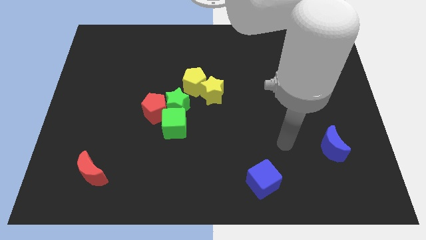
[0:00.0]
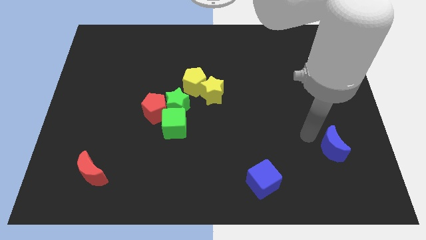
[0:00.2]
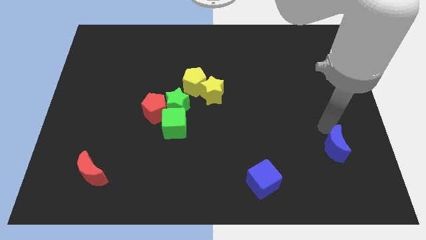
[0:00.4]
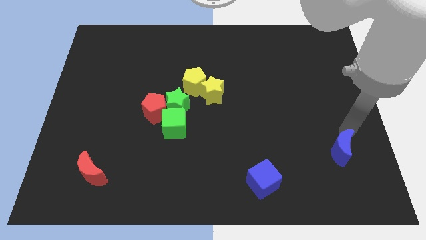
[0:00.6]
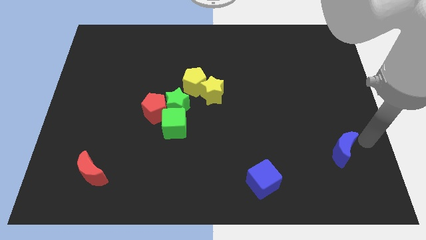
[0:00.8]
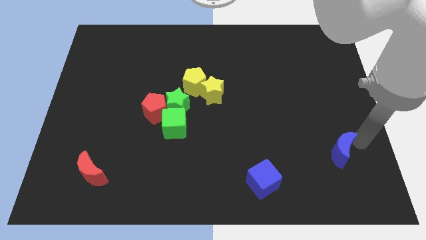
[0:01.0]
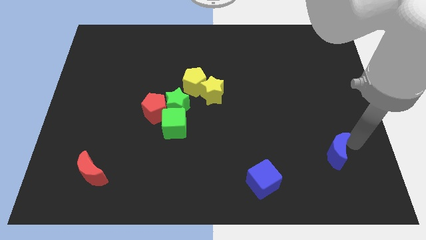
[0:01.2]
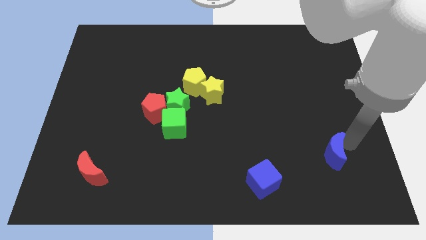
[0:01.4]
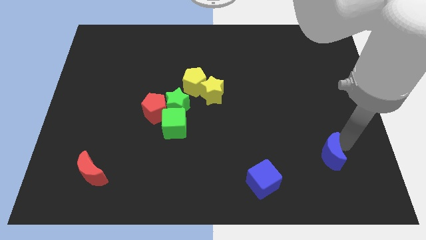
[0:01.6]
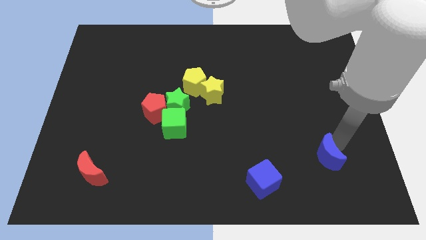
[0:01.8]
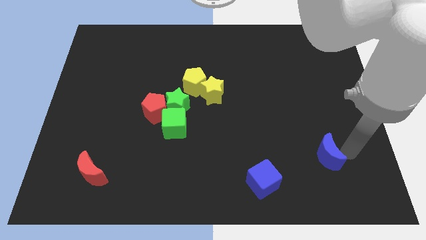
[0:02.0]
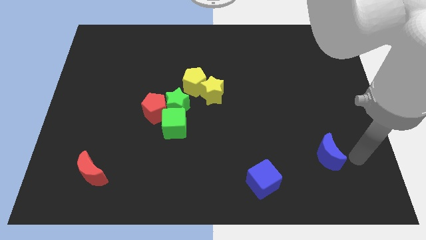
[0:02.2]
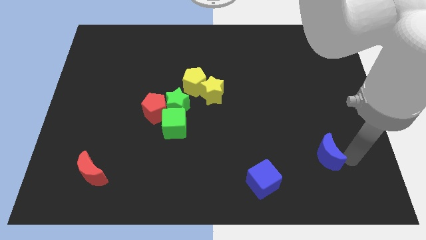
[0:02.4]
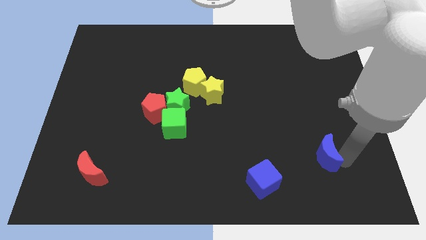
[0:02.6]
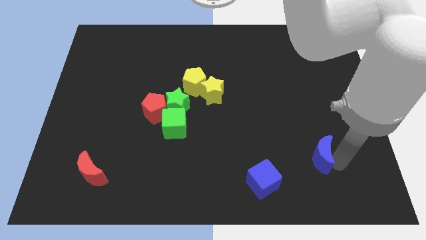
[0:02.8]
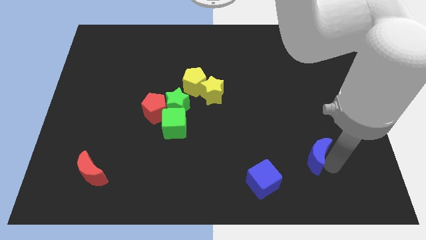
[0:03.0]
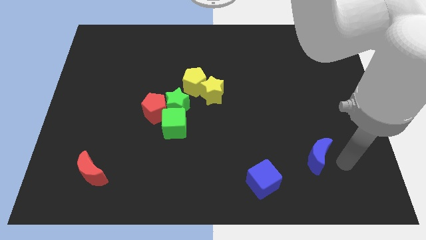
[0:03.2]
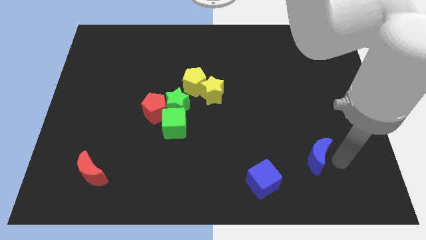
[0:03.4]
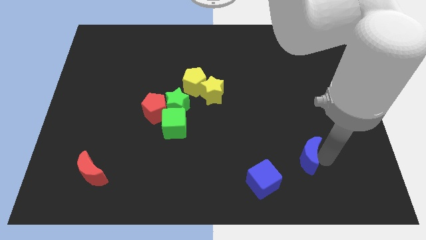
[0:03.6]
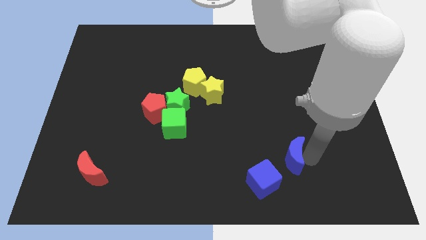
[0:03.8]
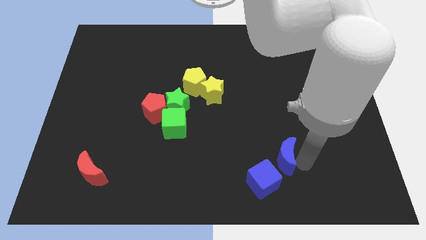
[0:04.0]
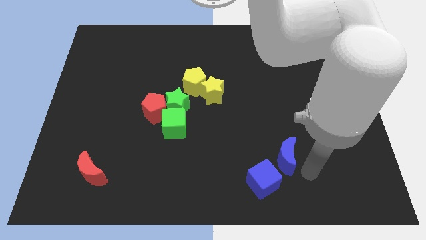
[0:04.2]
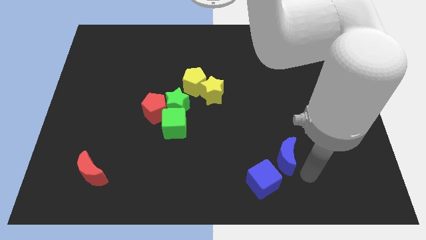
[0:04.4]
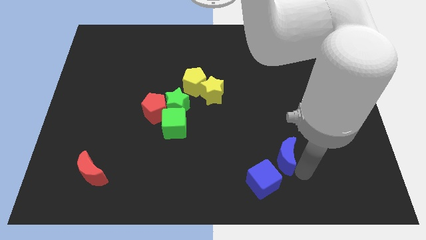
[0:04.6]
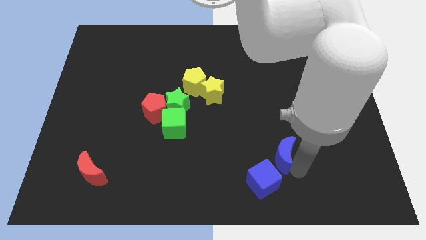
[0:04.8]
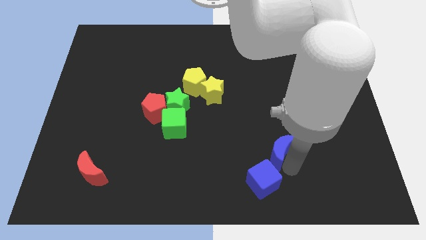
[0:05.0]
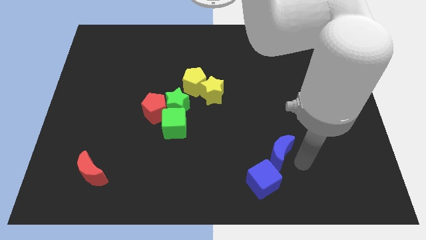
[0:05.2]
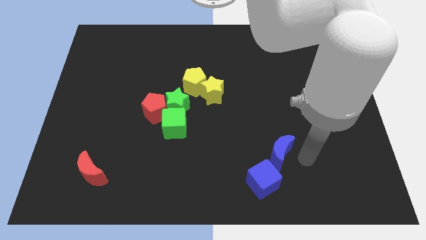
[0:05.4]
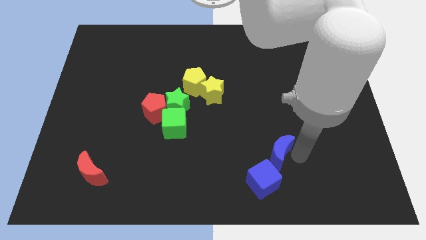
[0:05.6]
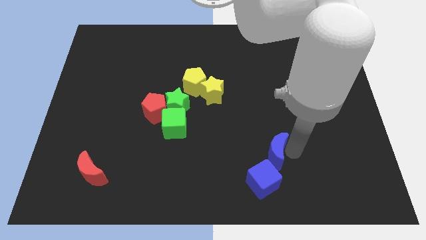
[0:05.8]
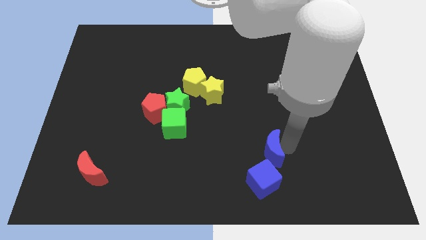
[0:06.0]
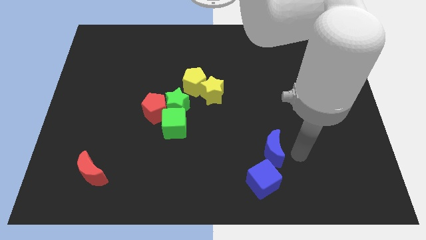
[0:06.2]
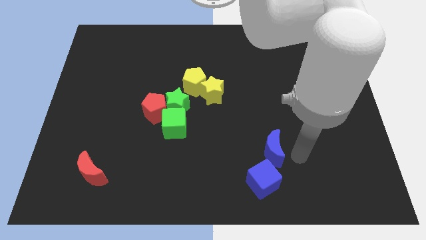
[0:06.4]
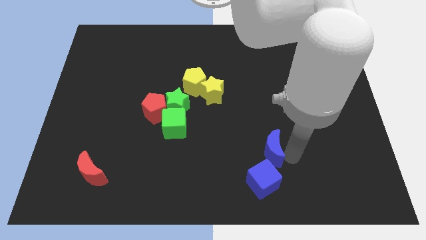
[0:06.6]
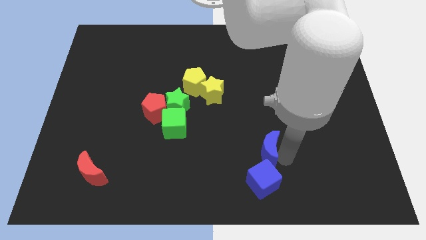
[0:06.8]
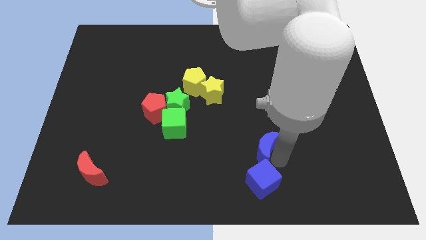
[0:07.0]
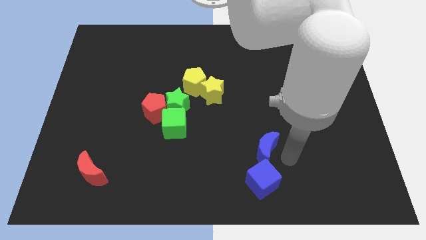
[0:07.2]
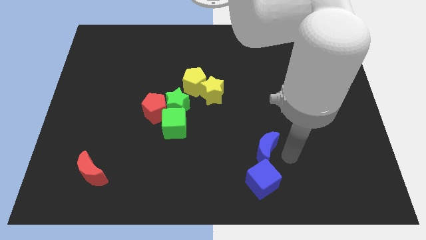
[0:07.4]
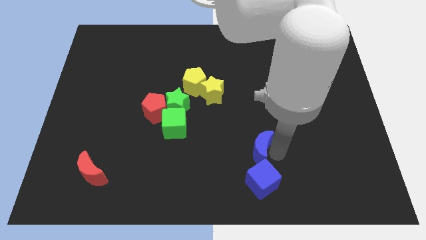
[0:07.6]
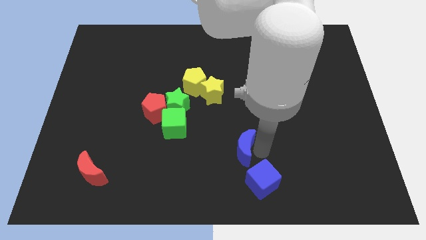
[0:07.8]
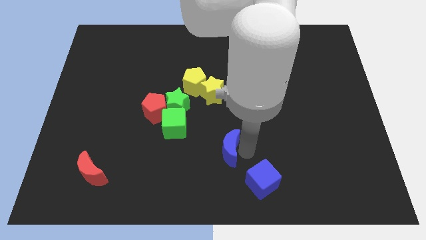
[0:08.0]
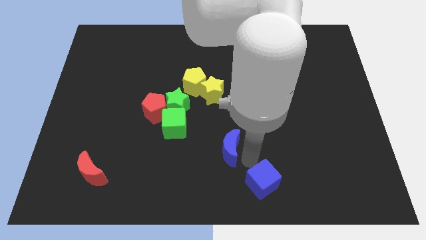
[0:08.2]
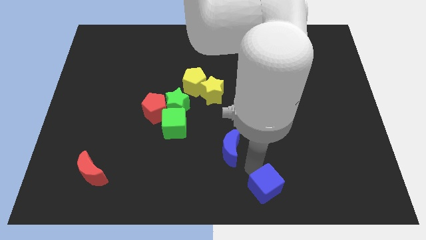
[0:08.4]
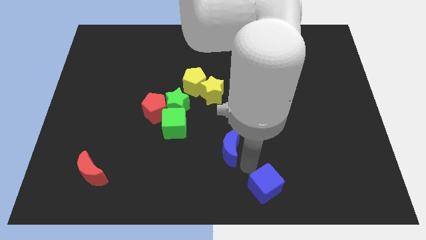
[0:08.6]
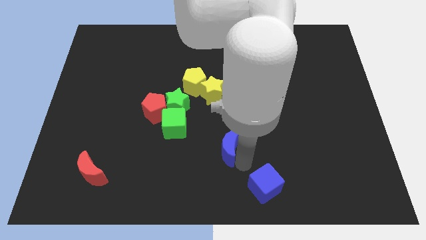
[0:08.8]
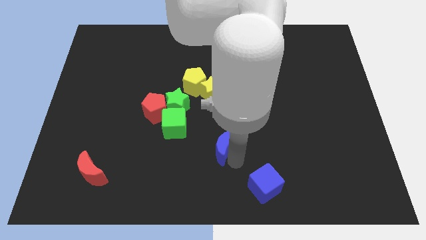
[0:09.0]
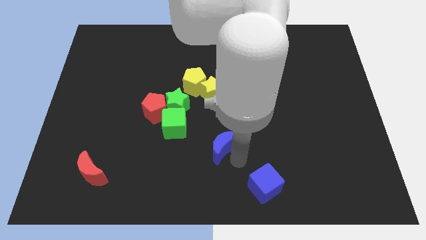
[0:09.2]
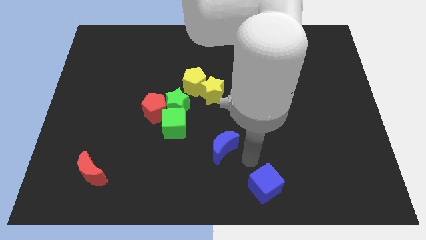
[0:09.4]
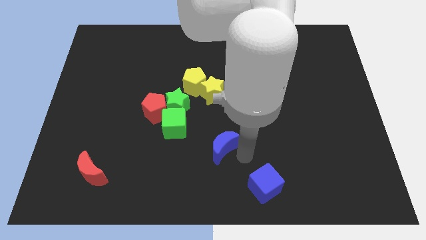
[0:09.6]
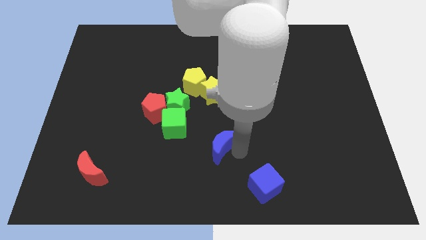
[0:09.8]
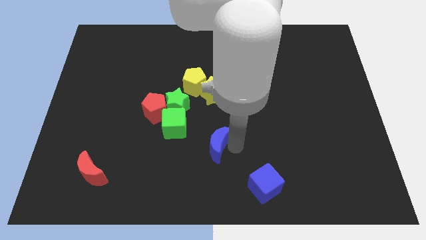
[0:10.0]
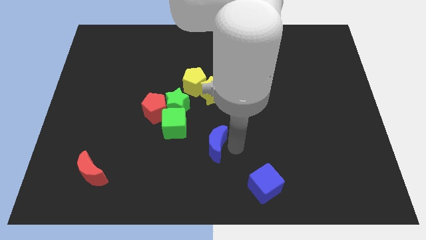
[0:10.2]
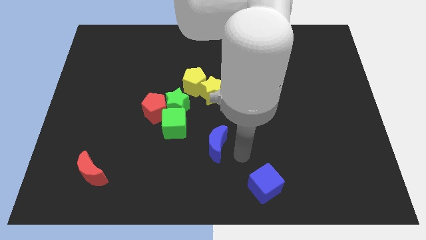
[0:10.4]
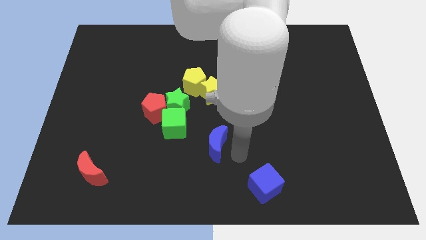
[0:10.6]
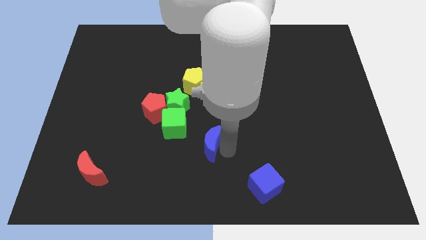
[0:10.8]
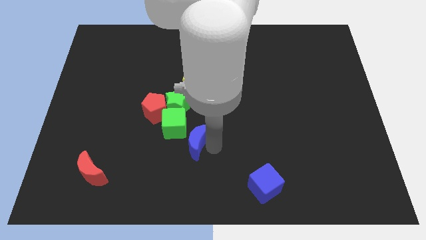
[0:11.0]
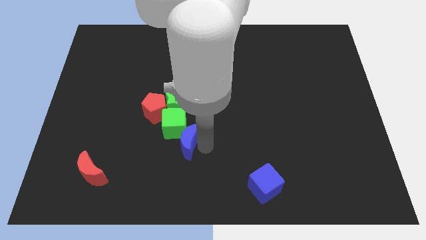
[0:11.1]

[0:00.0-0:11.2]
move the blue moon to the bottom right side of the red pentagon

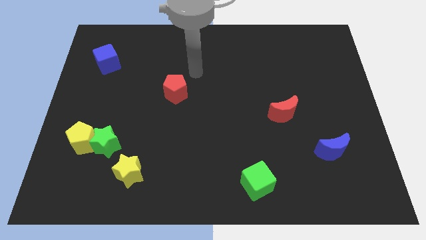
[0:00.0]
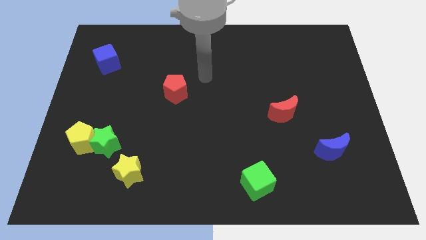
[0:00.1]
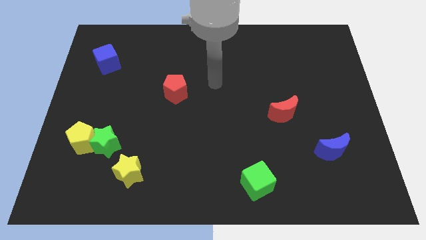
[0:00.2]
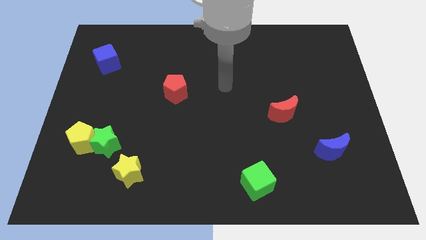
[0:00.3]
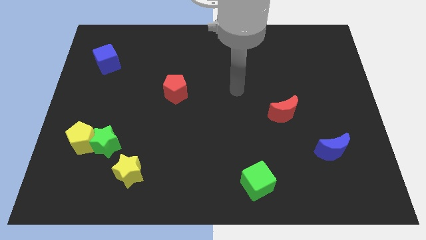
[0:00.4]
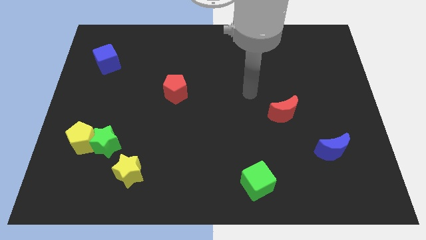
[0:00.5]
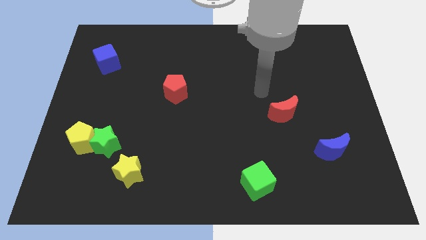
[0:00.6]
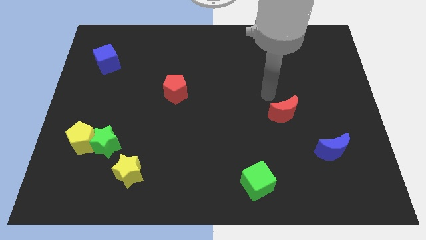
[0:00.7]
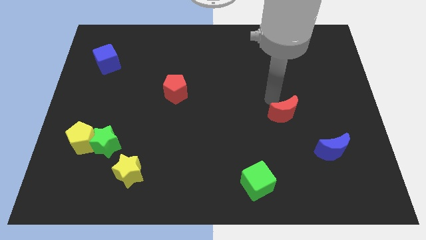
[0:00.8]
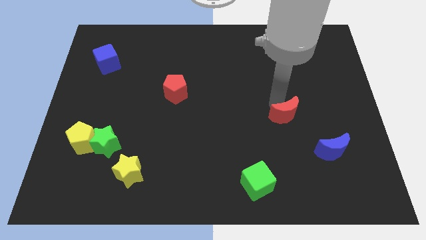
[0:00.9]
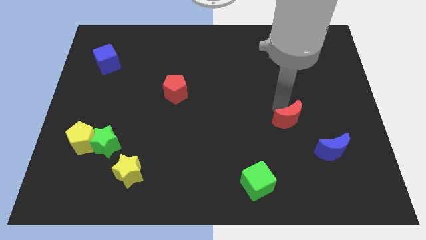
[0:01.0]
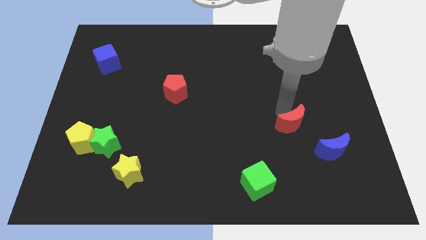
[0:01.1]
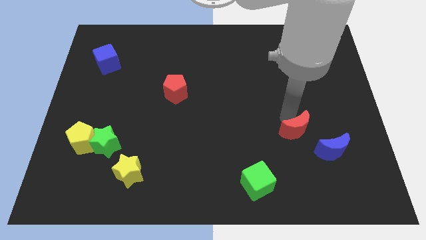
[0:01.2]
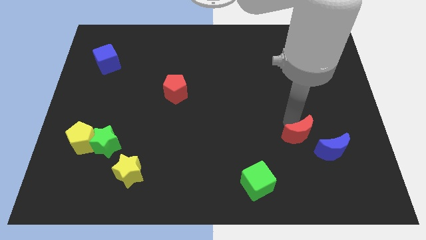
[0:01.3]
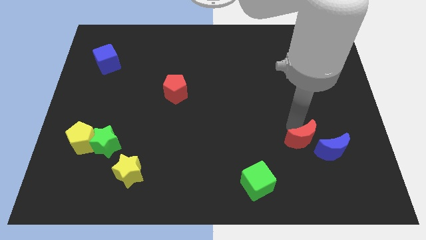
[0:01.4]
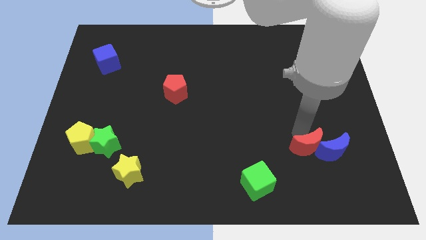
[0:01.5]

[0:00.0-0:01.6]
move the red moon to the bottom left side of the blue moon
